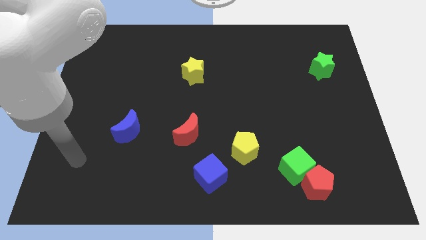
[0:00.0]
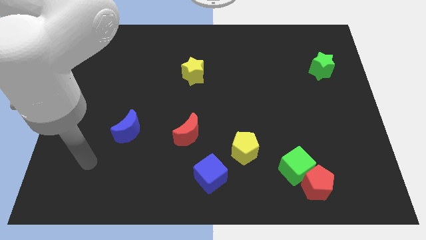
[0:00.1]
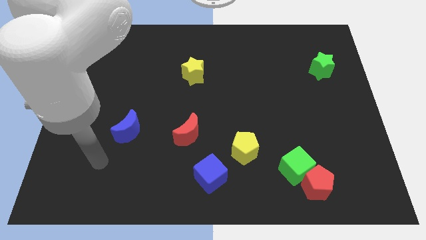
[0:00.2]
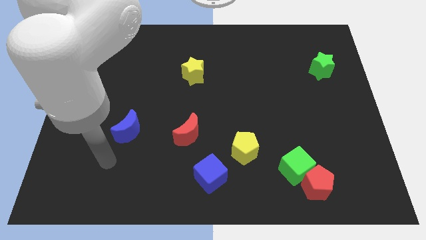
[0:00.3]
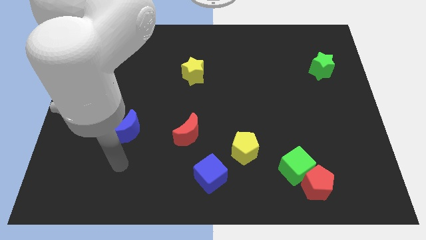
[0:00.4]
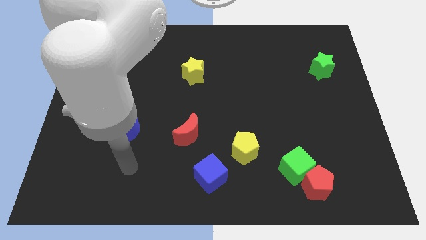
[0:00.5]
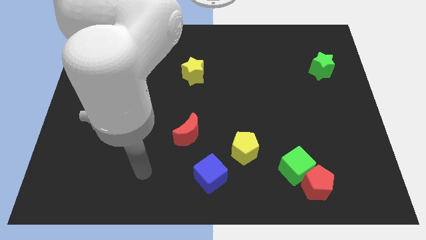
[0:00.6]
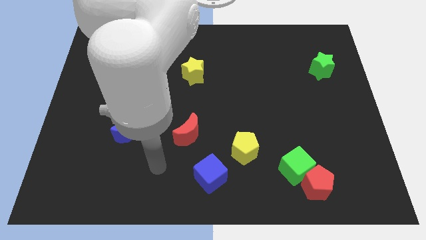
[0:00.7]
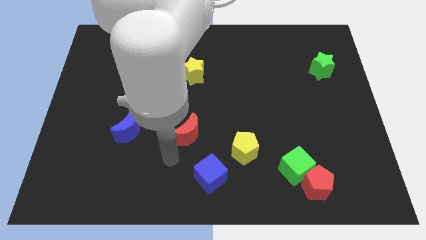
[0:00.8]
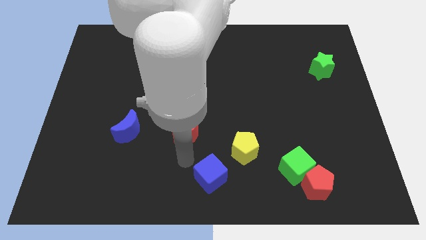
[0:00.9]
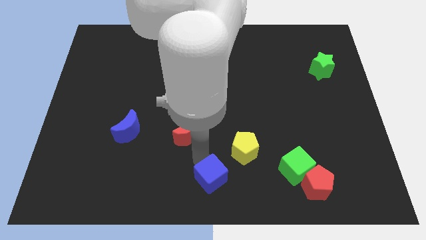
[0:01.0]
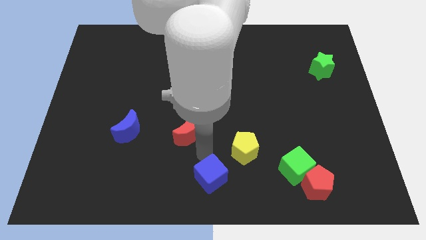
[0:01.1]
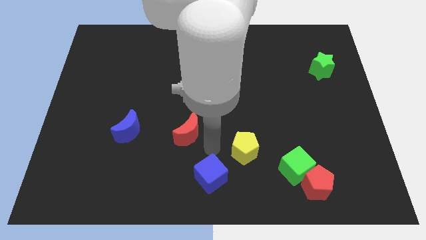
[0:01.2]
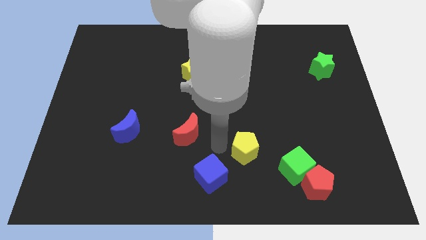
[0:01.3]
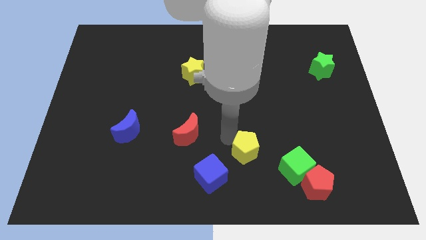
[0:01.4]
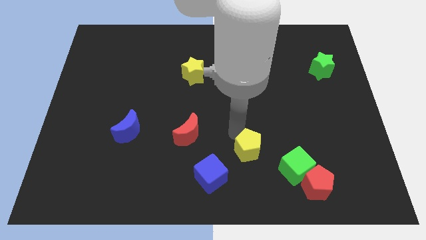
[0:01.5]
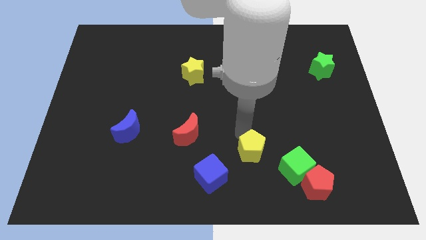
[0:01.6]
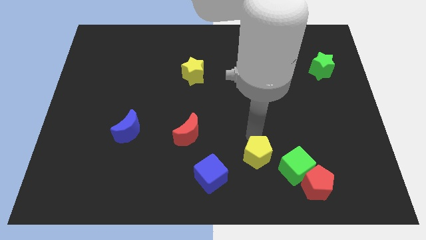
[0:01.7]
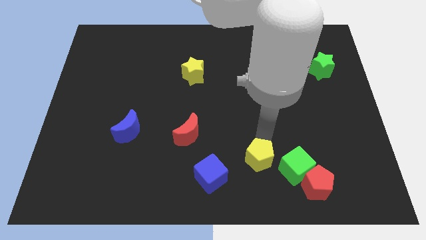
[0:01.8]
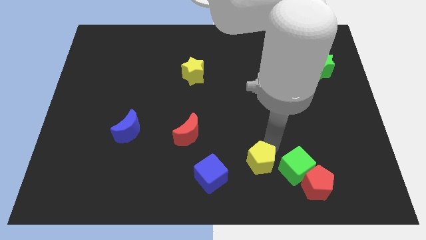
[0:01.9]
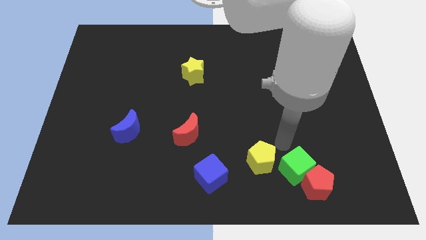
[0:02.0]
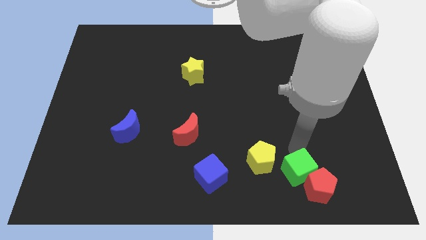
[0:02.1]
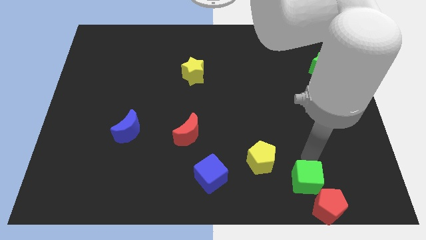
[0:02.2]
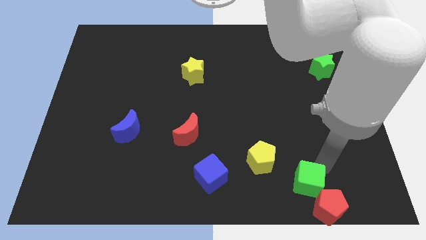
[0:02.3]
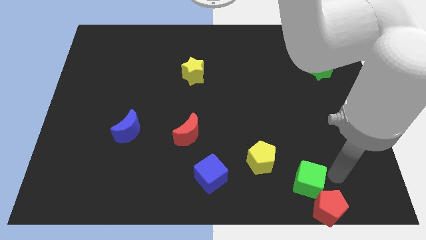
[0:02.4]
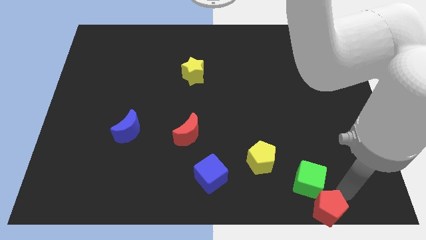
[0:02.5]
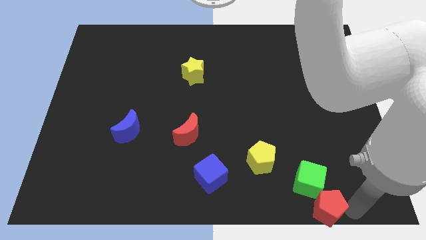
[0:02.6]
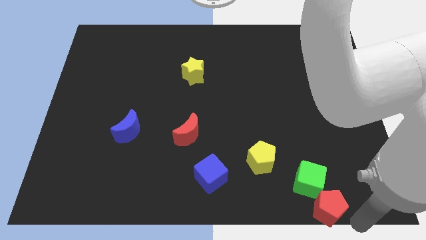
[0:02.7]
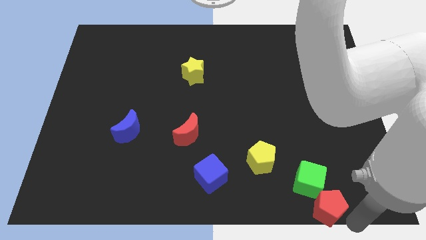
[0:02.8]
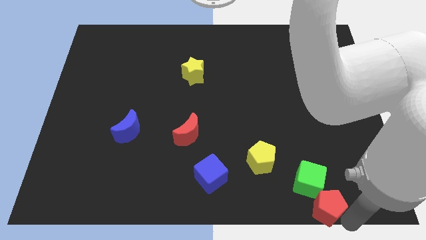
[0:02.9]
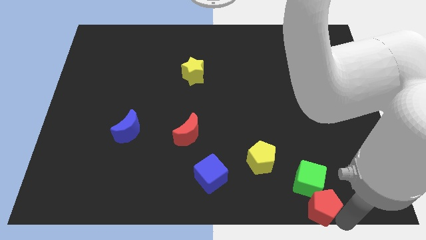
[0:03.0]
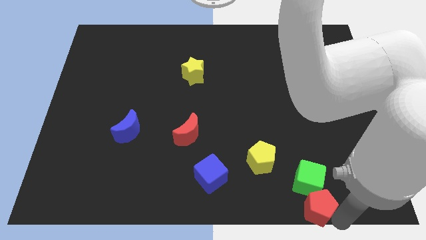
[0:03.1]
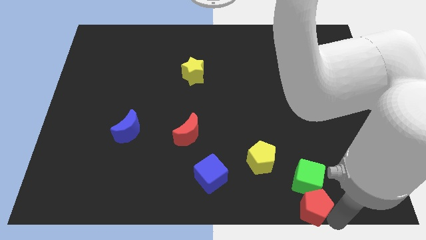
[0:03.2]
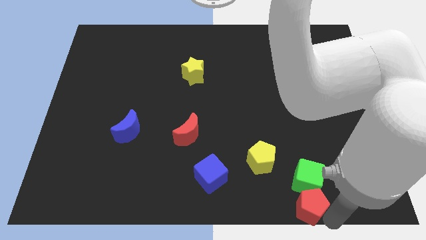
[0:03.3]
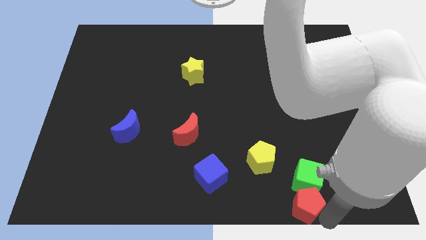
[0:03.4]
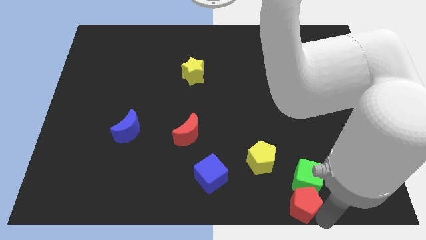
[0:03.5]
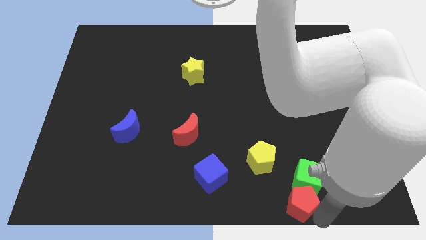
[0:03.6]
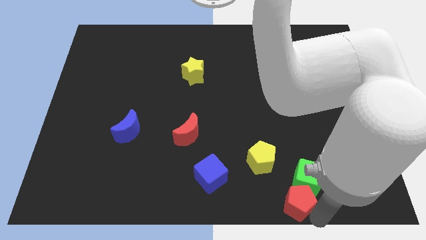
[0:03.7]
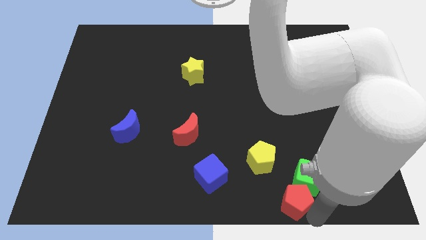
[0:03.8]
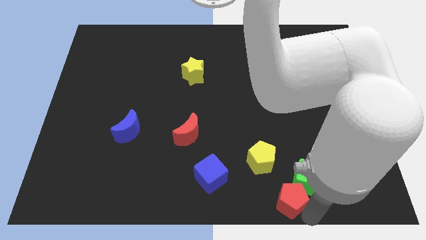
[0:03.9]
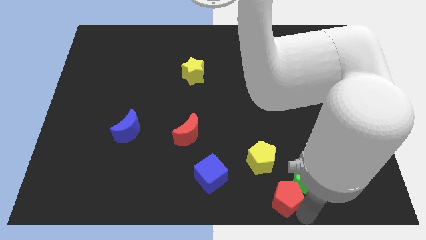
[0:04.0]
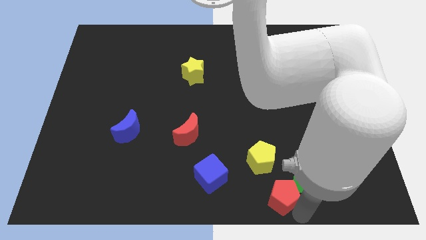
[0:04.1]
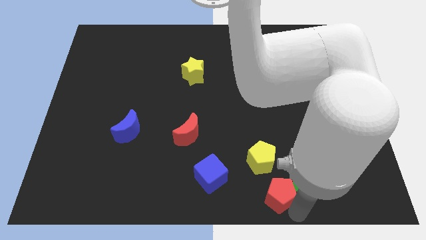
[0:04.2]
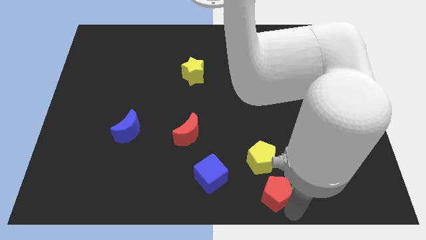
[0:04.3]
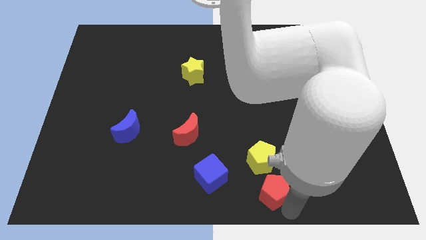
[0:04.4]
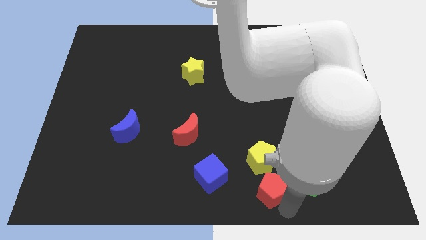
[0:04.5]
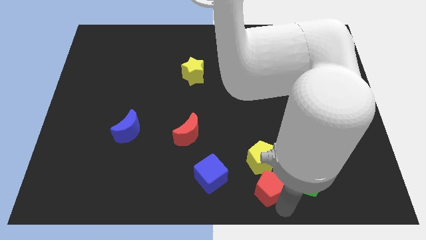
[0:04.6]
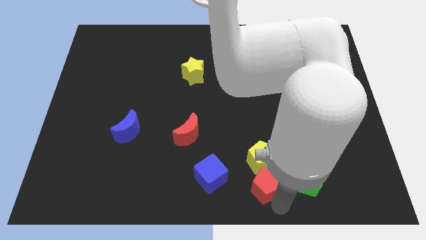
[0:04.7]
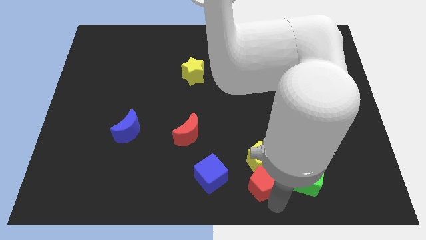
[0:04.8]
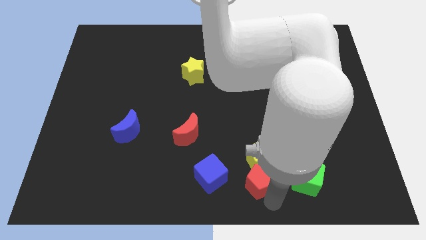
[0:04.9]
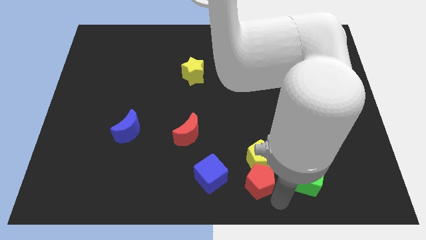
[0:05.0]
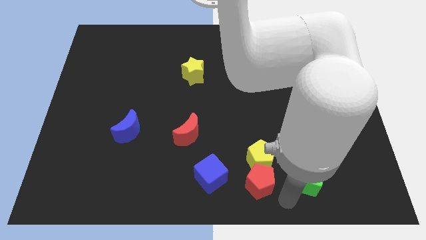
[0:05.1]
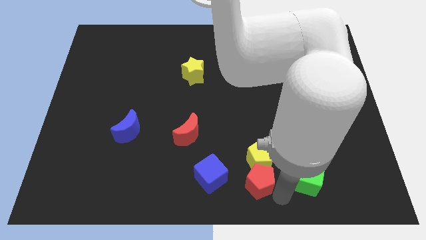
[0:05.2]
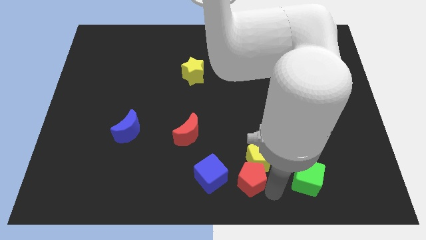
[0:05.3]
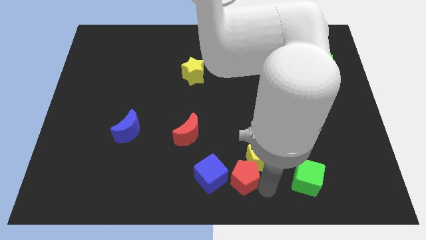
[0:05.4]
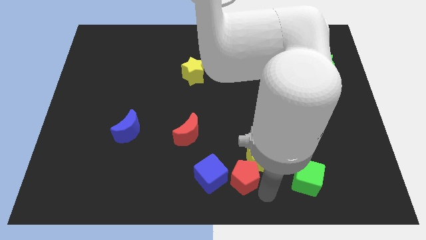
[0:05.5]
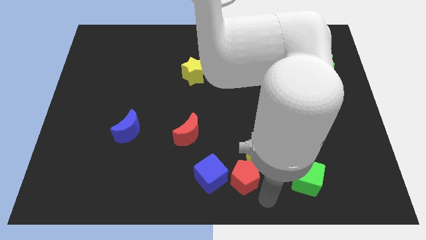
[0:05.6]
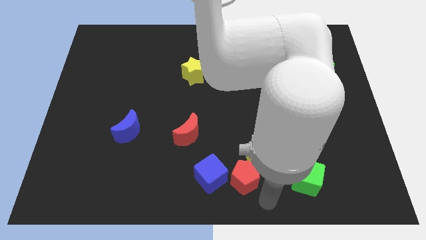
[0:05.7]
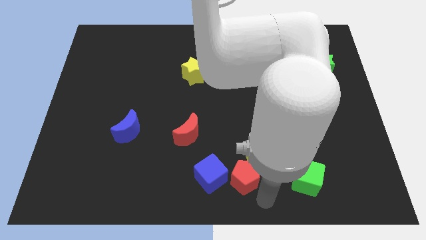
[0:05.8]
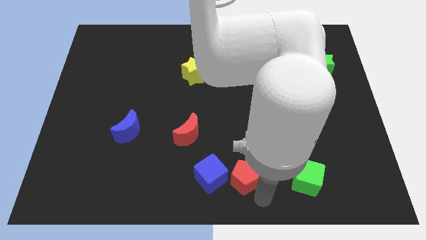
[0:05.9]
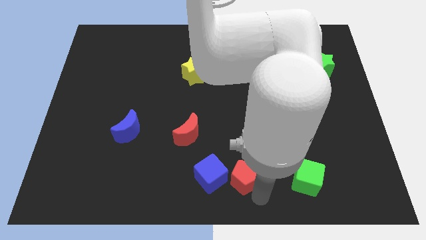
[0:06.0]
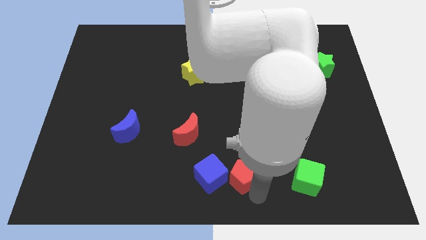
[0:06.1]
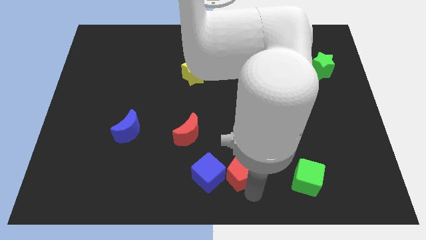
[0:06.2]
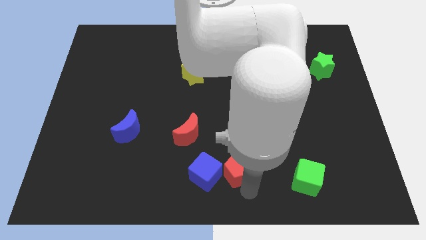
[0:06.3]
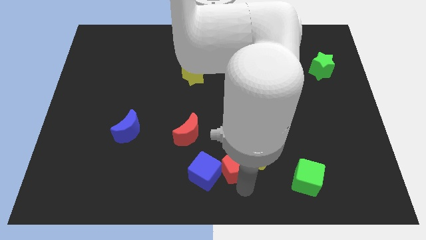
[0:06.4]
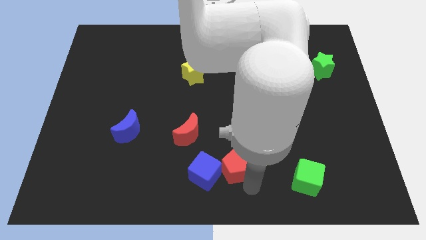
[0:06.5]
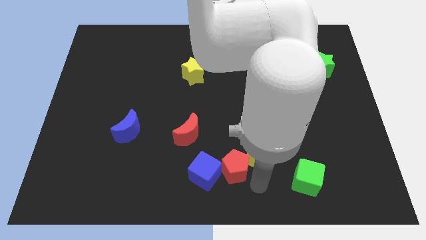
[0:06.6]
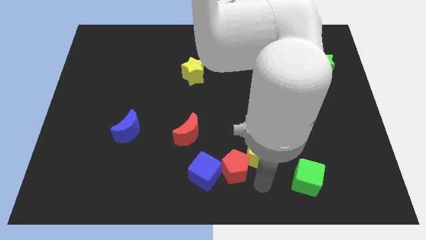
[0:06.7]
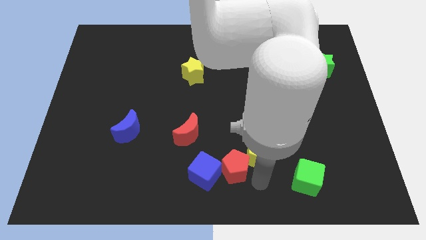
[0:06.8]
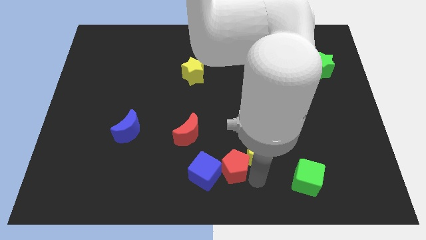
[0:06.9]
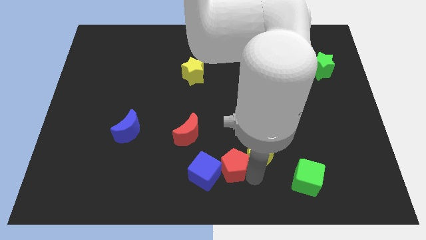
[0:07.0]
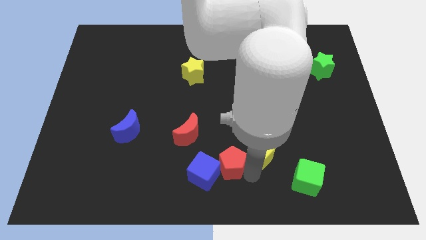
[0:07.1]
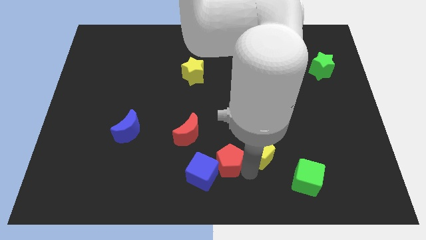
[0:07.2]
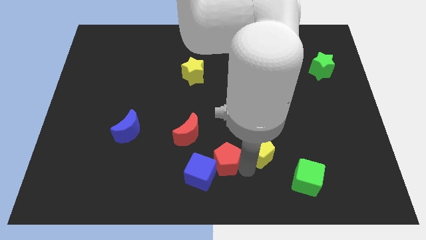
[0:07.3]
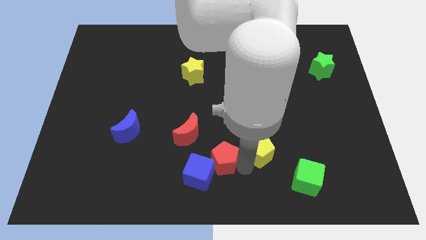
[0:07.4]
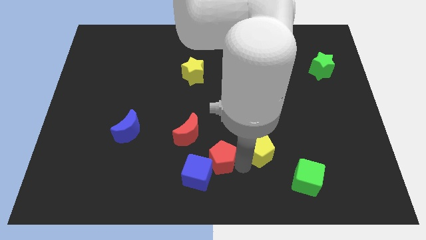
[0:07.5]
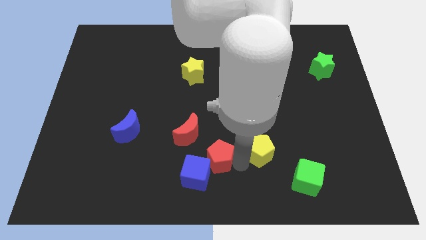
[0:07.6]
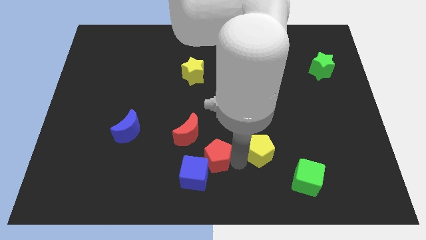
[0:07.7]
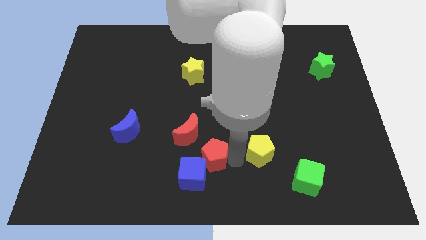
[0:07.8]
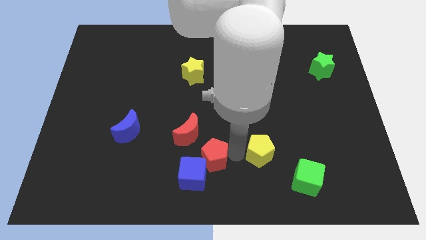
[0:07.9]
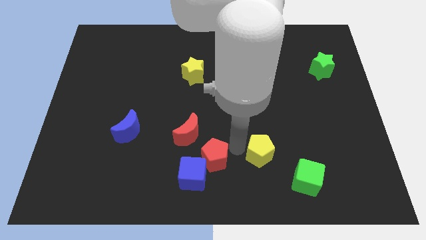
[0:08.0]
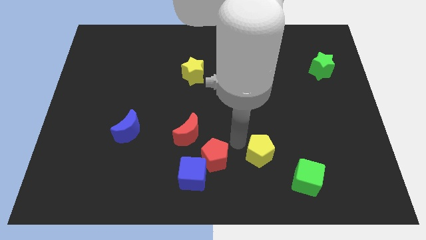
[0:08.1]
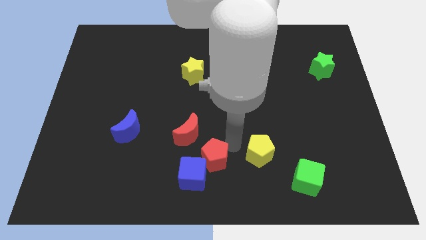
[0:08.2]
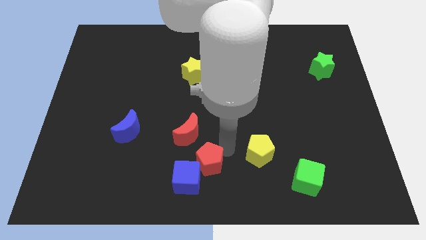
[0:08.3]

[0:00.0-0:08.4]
push the red pentagon below the red moon
